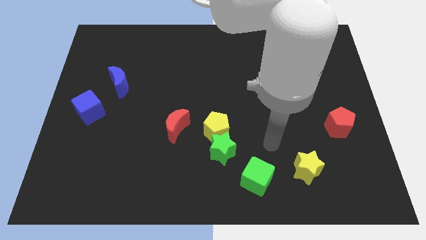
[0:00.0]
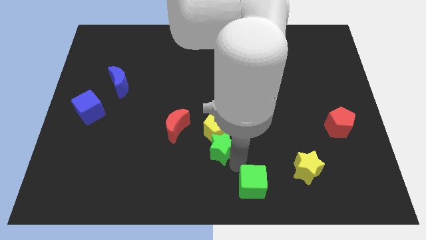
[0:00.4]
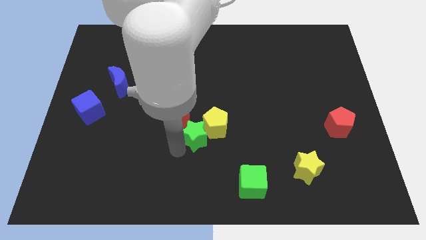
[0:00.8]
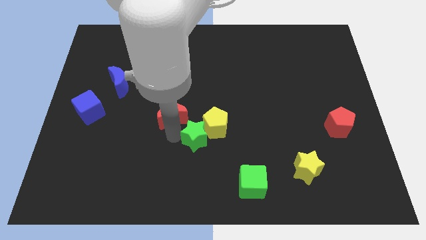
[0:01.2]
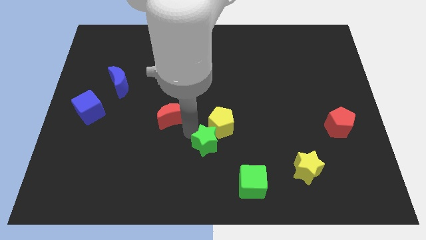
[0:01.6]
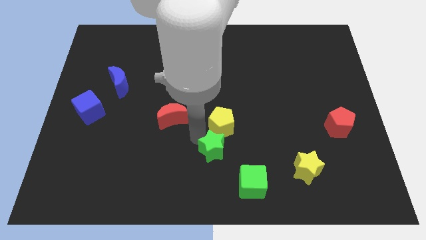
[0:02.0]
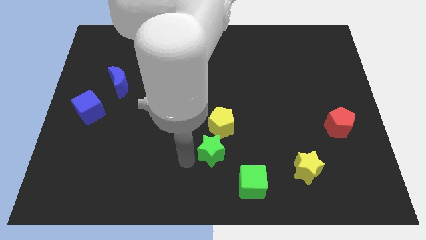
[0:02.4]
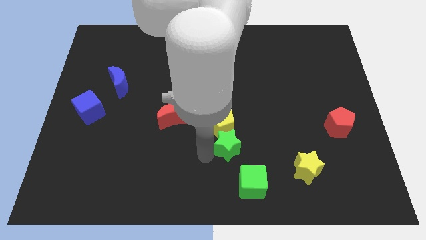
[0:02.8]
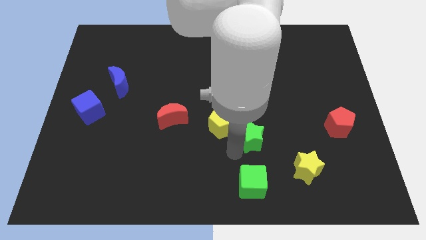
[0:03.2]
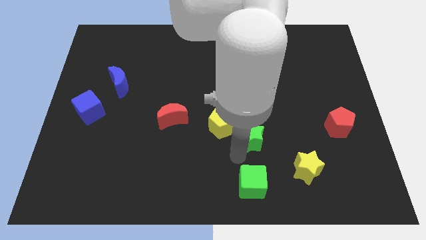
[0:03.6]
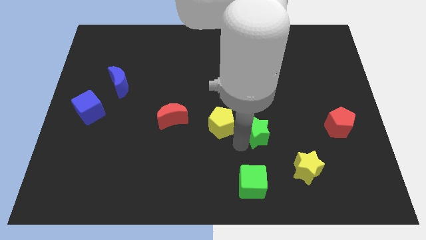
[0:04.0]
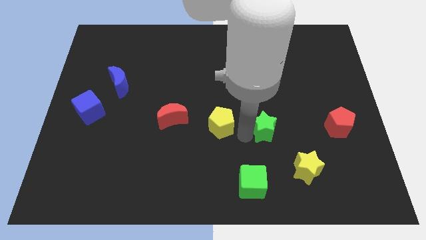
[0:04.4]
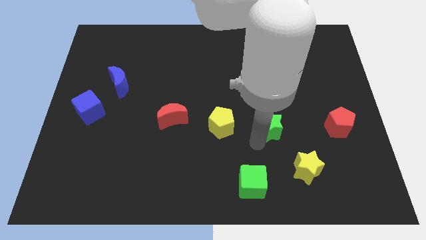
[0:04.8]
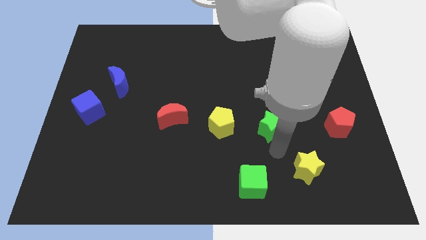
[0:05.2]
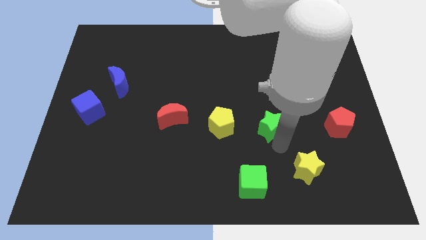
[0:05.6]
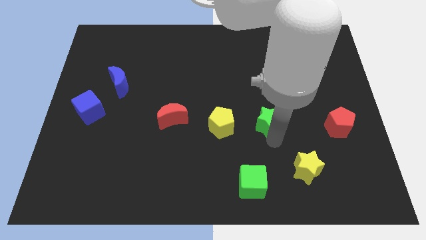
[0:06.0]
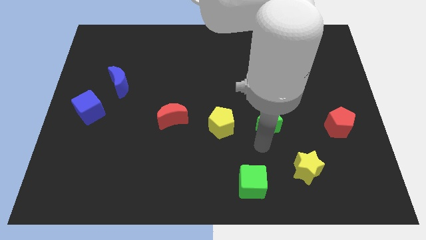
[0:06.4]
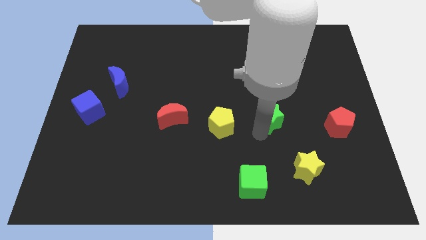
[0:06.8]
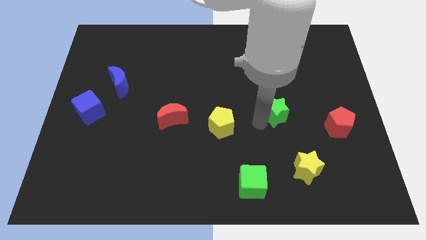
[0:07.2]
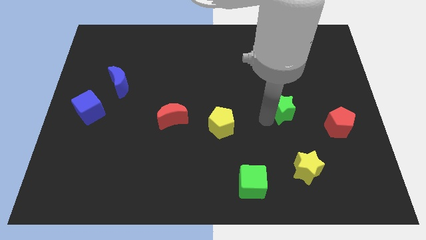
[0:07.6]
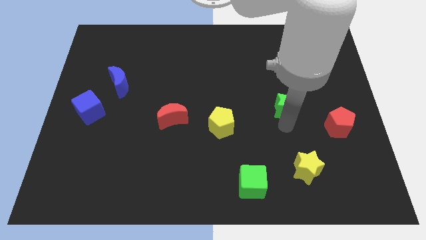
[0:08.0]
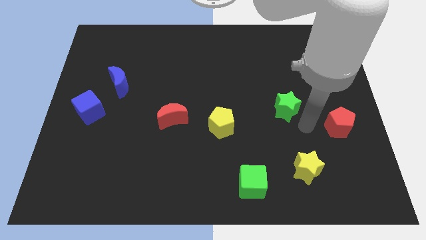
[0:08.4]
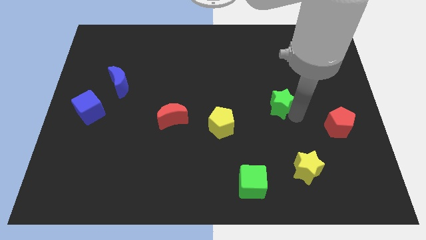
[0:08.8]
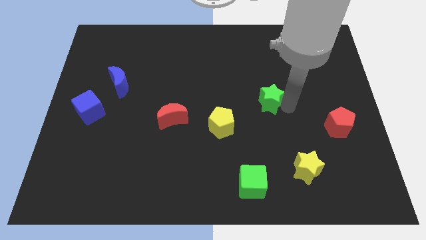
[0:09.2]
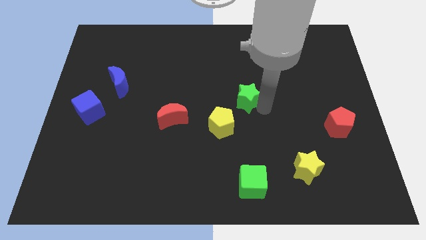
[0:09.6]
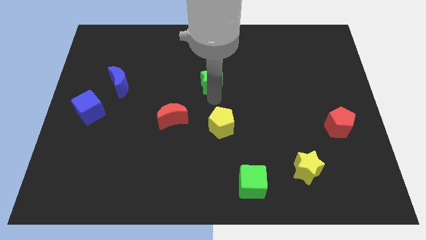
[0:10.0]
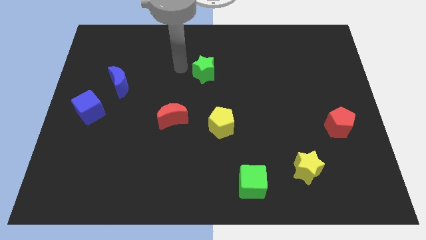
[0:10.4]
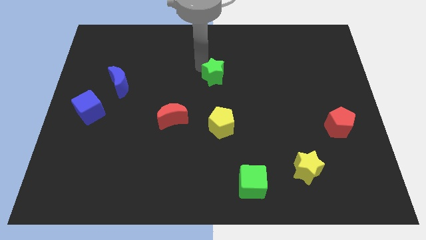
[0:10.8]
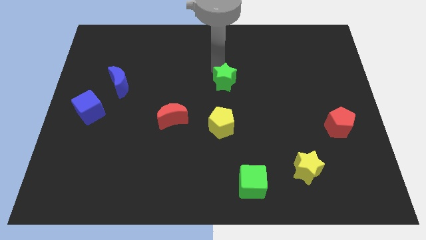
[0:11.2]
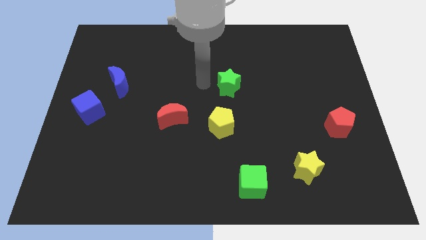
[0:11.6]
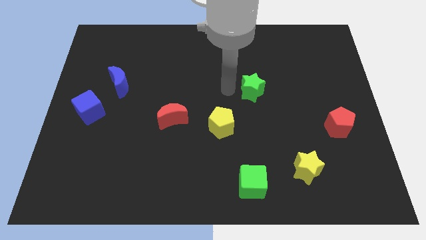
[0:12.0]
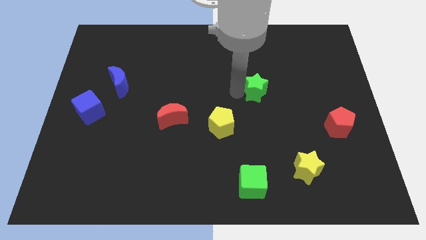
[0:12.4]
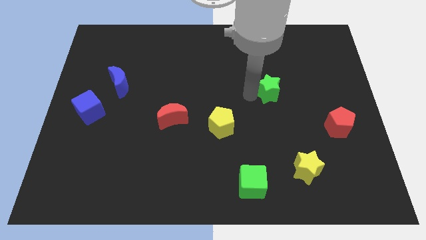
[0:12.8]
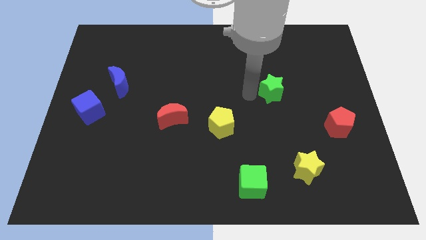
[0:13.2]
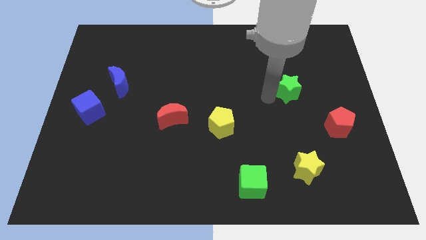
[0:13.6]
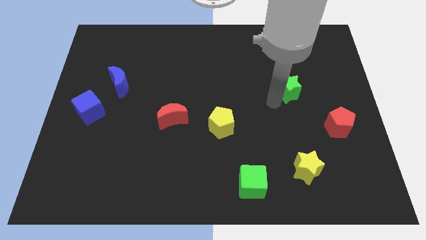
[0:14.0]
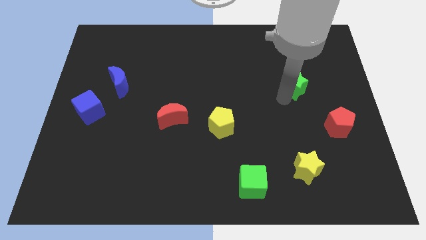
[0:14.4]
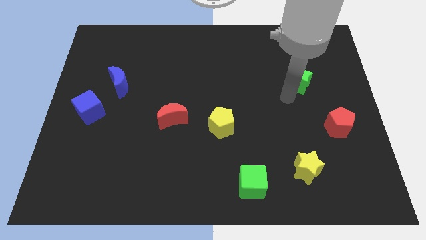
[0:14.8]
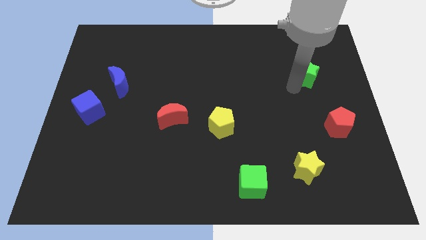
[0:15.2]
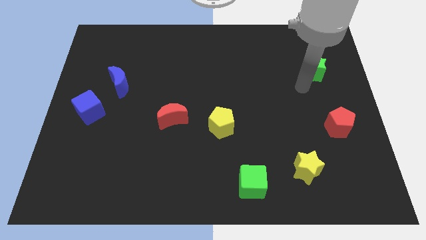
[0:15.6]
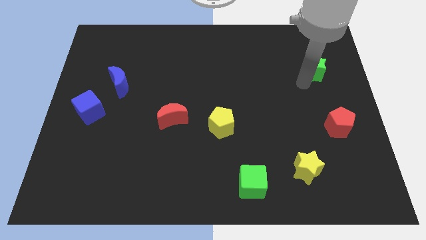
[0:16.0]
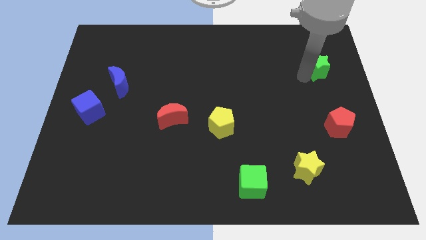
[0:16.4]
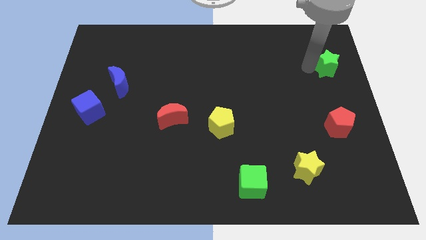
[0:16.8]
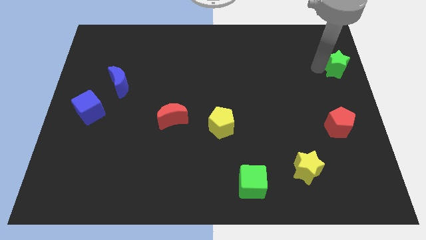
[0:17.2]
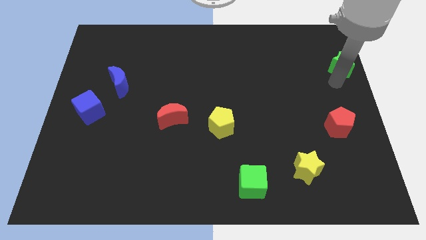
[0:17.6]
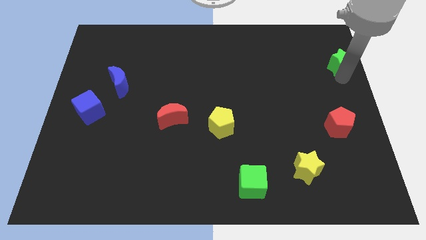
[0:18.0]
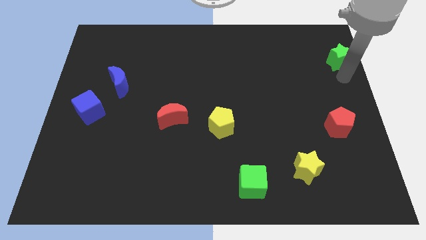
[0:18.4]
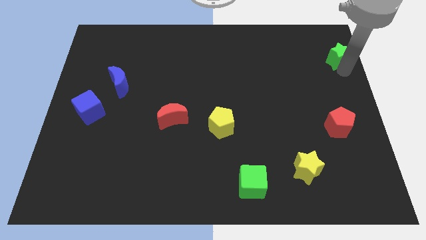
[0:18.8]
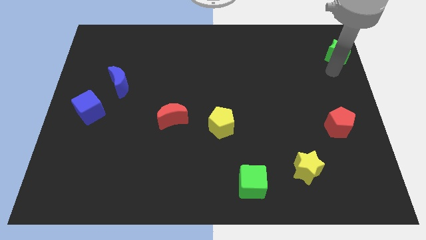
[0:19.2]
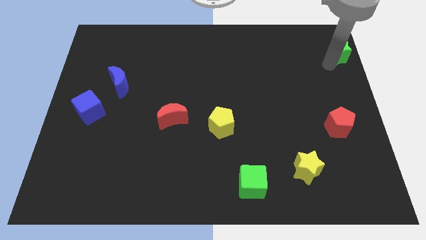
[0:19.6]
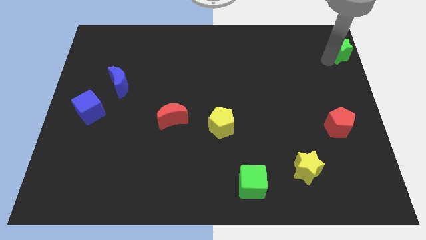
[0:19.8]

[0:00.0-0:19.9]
push the green star to the top right corner

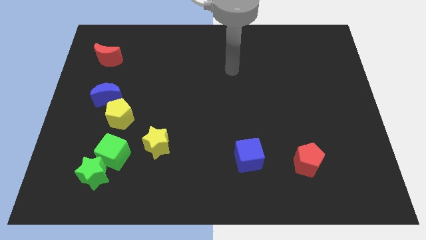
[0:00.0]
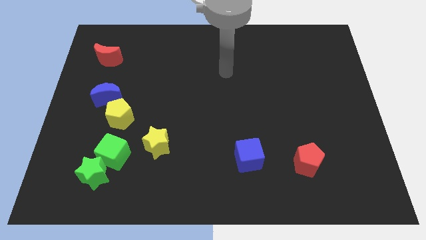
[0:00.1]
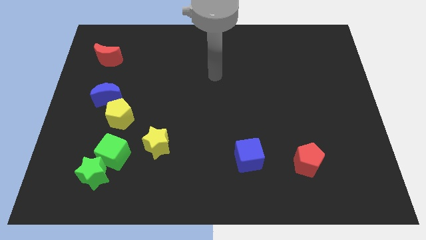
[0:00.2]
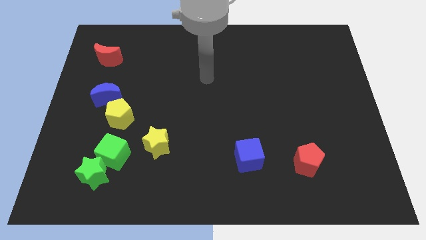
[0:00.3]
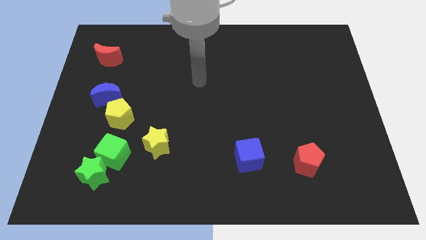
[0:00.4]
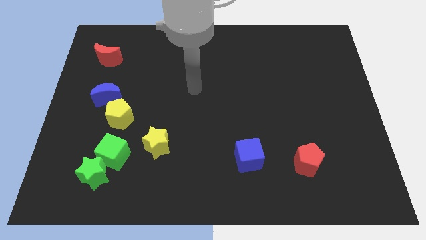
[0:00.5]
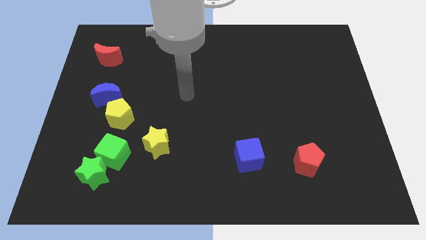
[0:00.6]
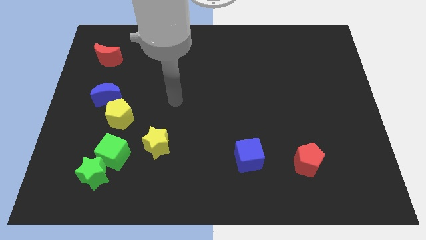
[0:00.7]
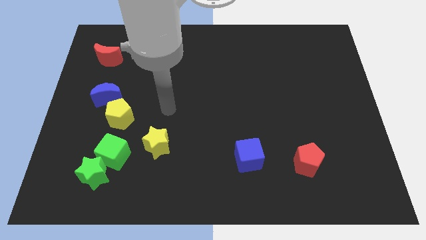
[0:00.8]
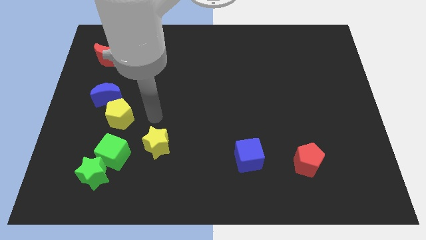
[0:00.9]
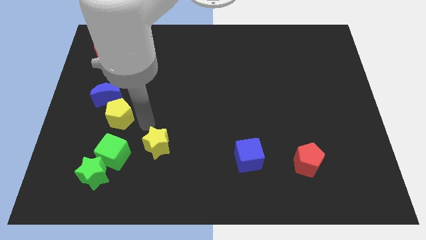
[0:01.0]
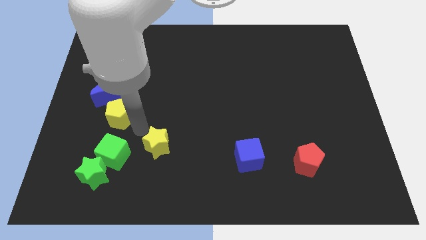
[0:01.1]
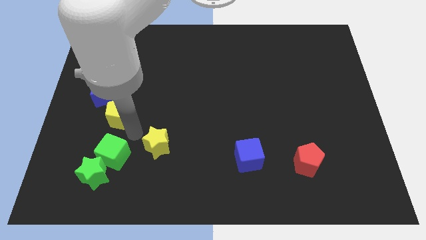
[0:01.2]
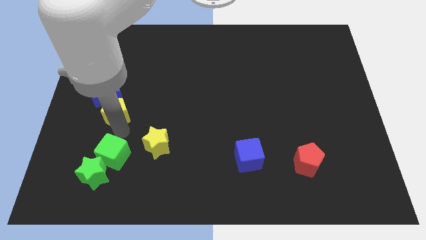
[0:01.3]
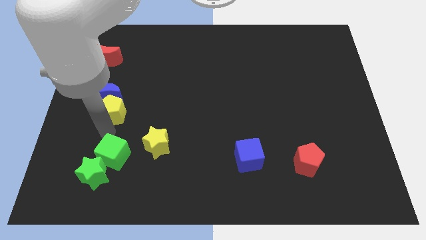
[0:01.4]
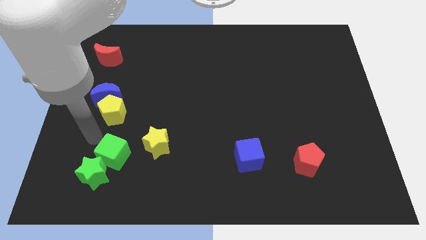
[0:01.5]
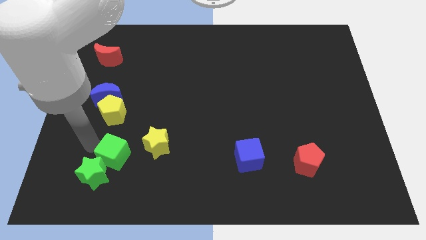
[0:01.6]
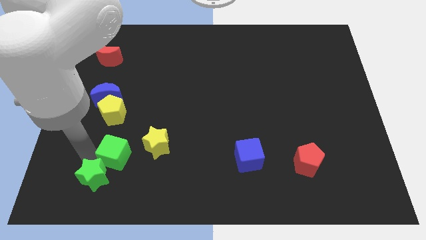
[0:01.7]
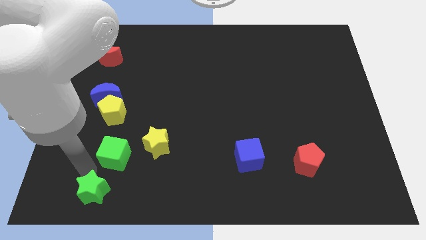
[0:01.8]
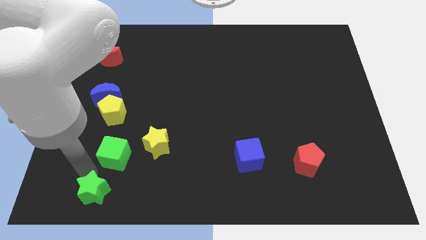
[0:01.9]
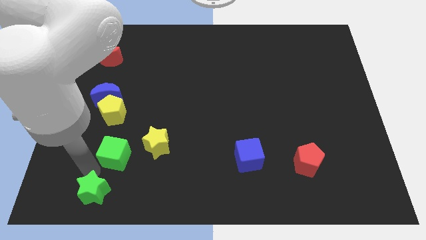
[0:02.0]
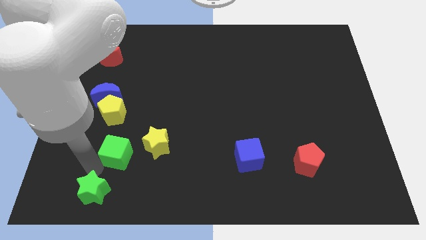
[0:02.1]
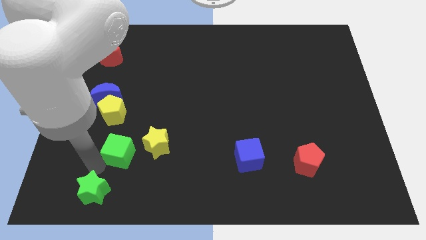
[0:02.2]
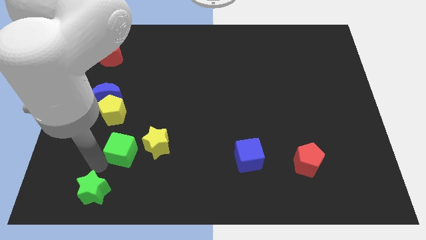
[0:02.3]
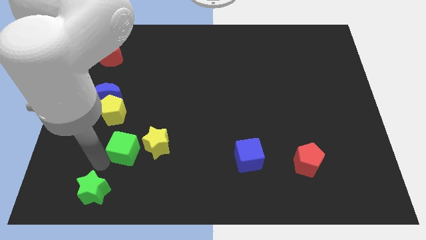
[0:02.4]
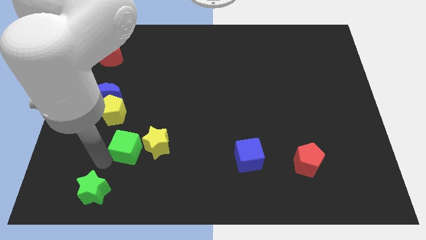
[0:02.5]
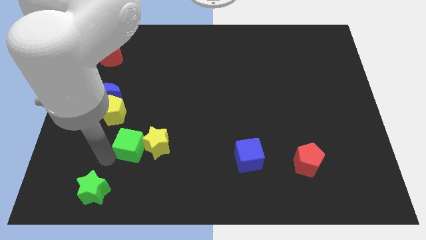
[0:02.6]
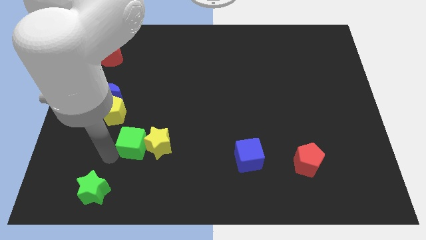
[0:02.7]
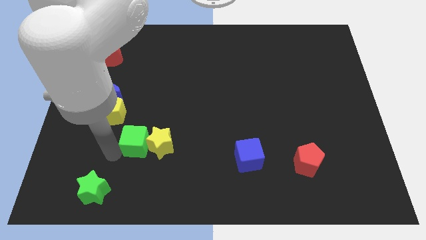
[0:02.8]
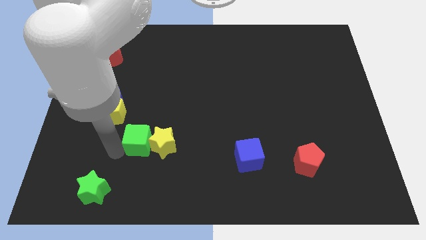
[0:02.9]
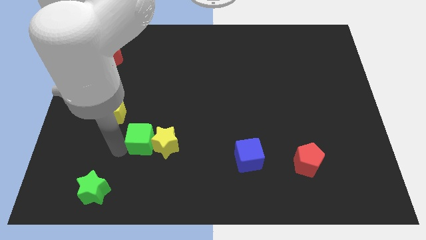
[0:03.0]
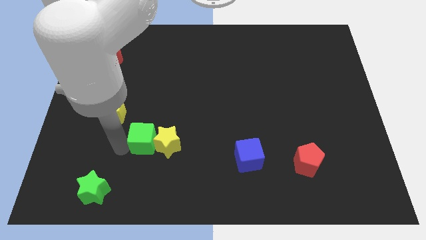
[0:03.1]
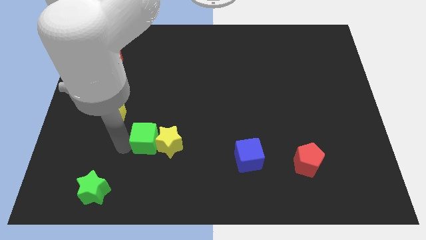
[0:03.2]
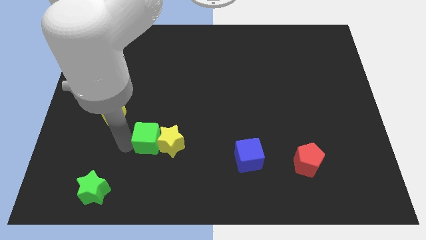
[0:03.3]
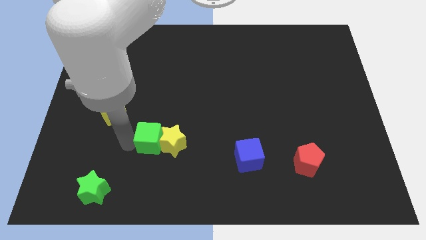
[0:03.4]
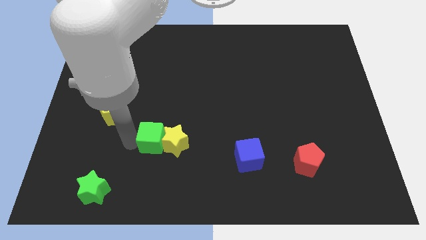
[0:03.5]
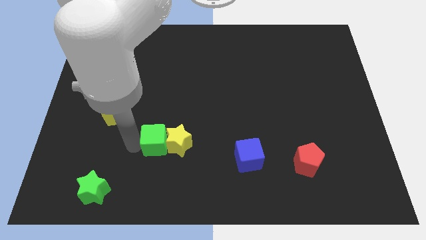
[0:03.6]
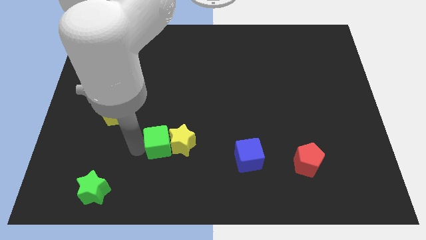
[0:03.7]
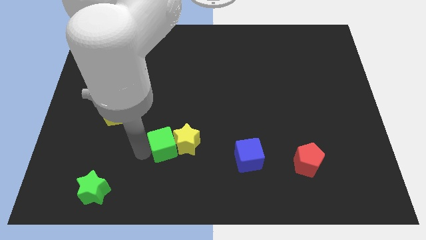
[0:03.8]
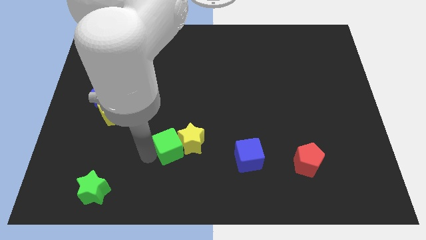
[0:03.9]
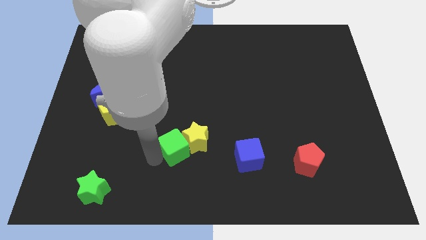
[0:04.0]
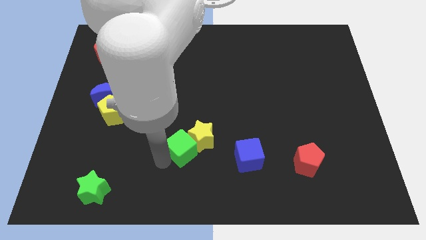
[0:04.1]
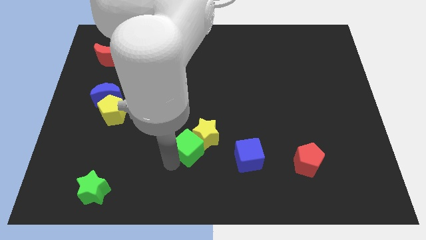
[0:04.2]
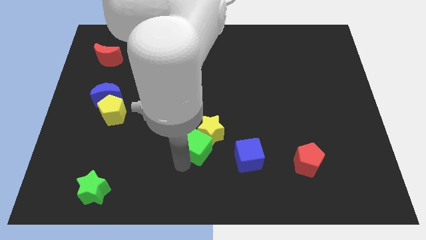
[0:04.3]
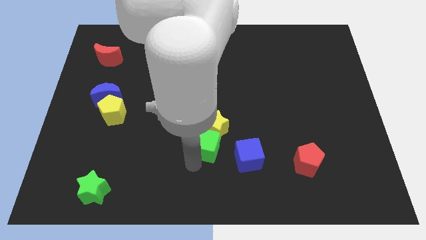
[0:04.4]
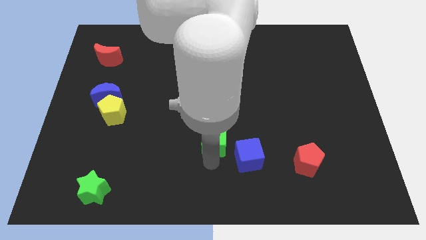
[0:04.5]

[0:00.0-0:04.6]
slide the green cube to the center
